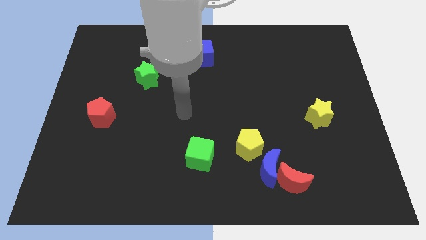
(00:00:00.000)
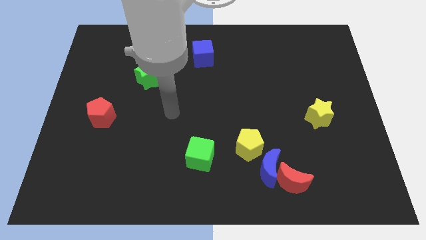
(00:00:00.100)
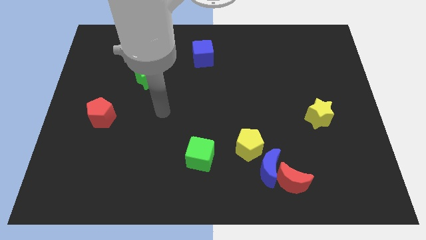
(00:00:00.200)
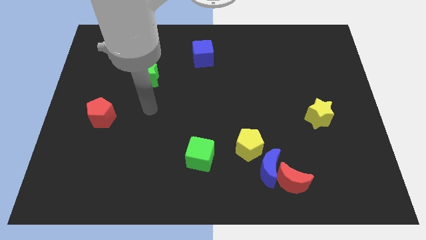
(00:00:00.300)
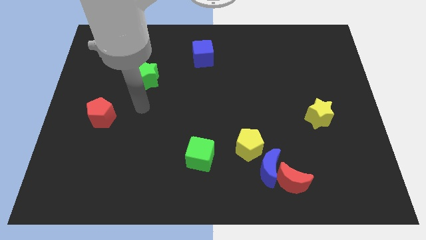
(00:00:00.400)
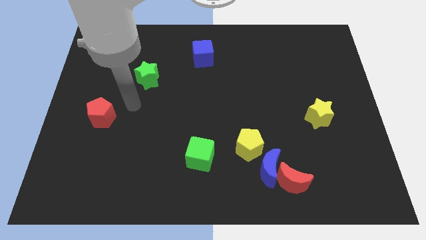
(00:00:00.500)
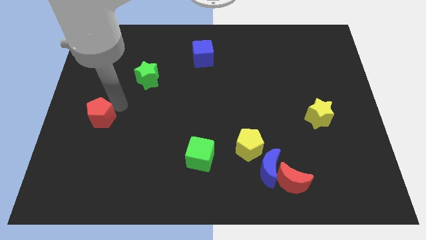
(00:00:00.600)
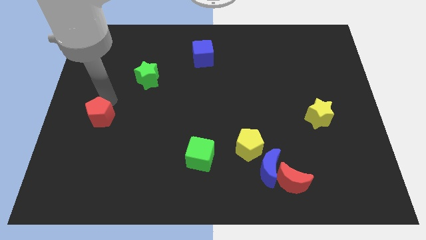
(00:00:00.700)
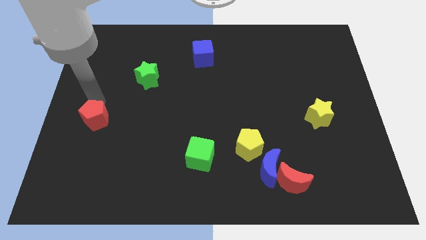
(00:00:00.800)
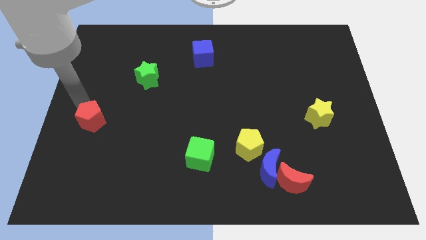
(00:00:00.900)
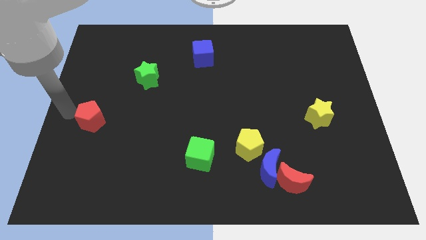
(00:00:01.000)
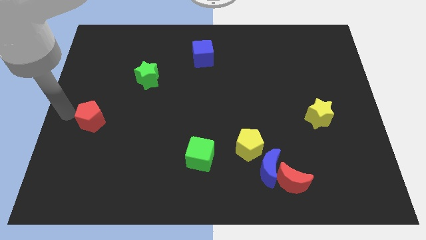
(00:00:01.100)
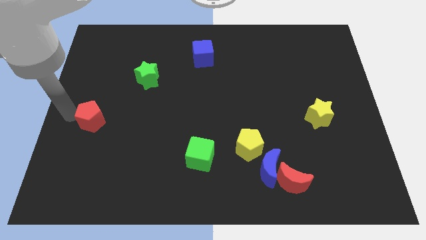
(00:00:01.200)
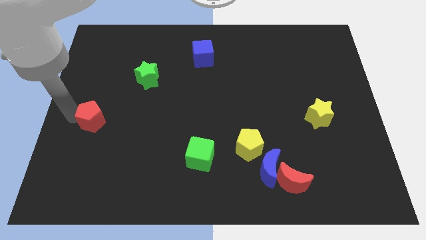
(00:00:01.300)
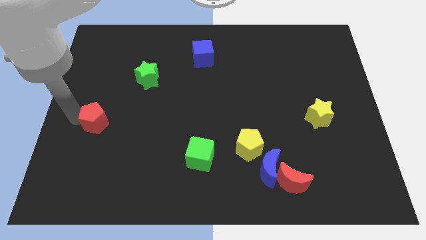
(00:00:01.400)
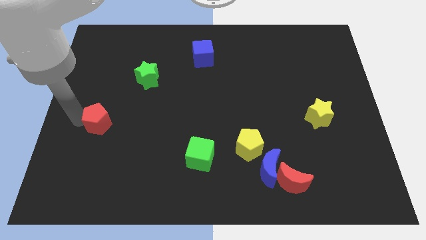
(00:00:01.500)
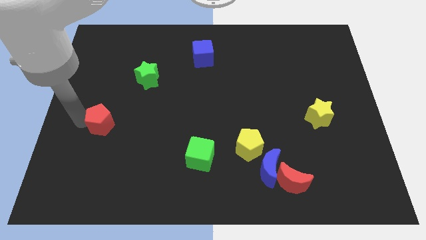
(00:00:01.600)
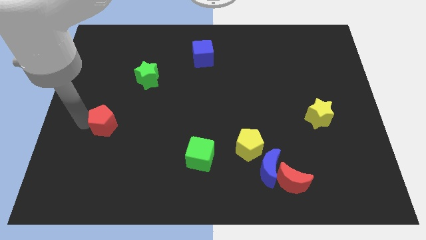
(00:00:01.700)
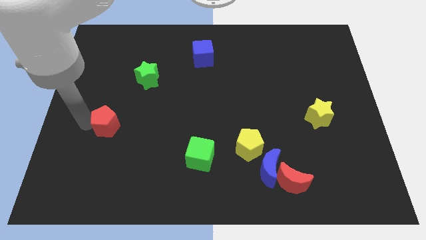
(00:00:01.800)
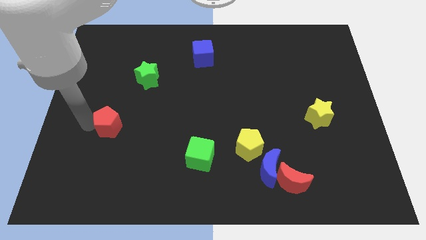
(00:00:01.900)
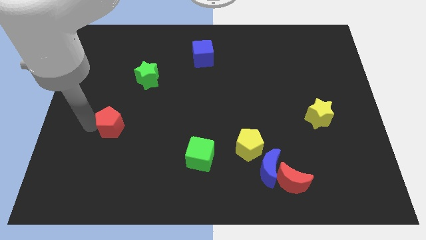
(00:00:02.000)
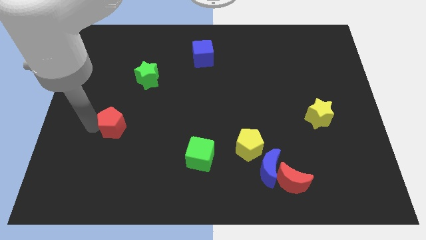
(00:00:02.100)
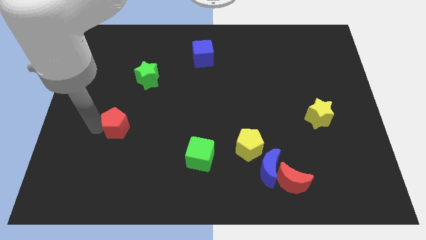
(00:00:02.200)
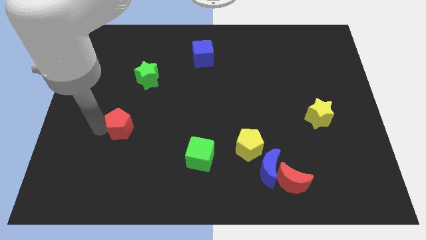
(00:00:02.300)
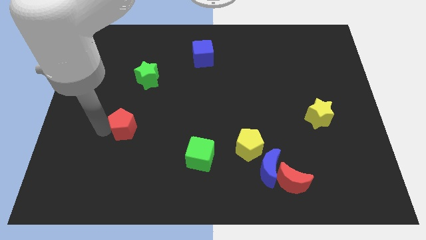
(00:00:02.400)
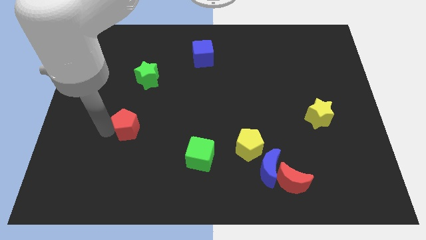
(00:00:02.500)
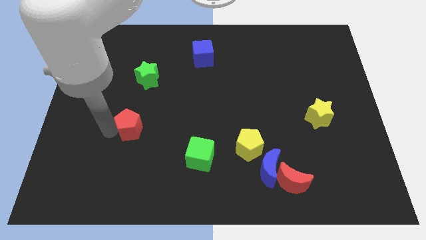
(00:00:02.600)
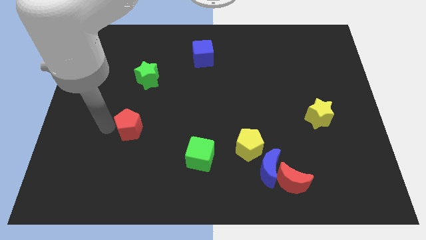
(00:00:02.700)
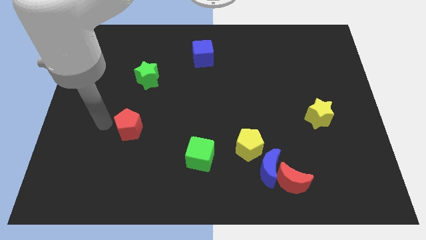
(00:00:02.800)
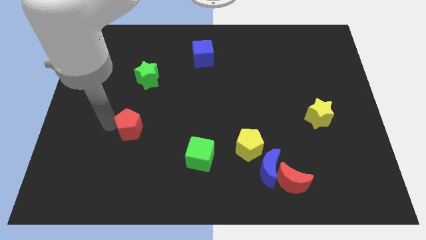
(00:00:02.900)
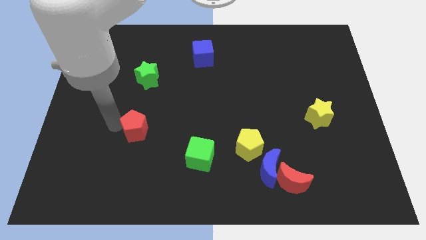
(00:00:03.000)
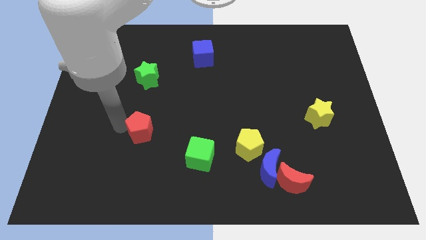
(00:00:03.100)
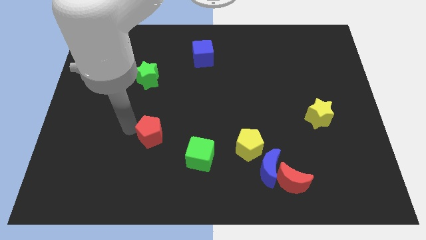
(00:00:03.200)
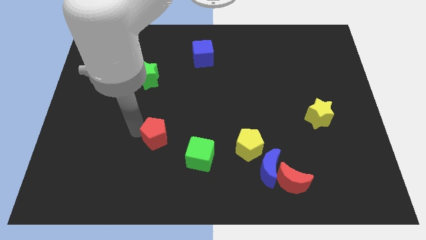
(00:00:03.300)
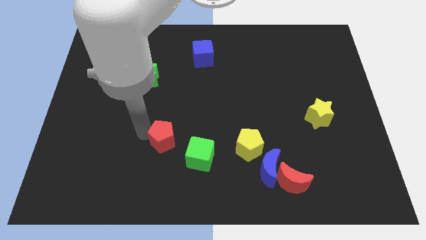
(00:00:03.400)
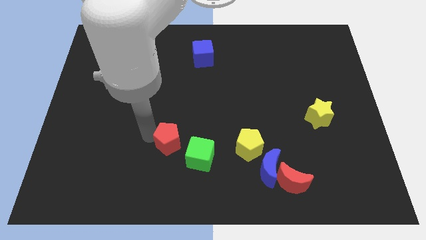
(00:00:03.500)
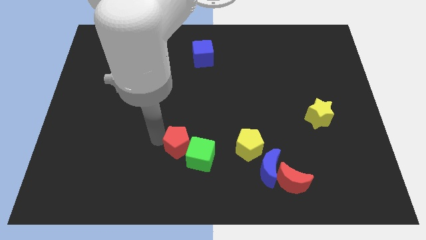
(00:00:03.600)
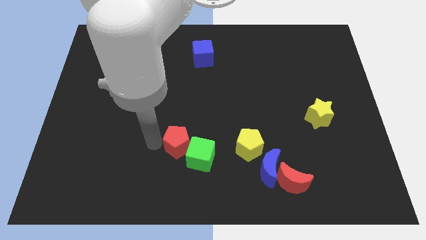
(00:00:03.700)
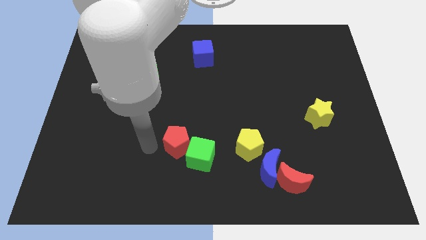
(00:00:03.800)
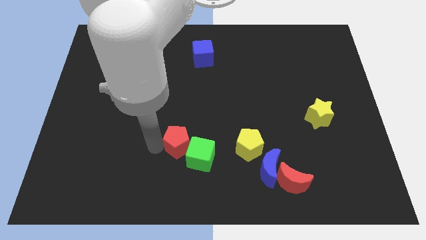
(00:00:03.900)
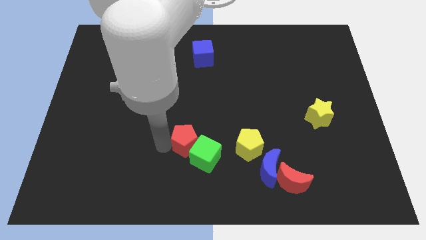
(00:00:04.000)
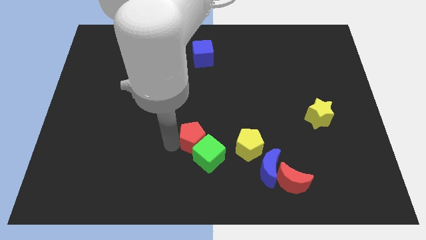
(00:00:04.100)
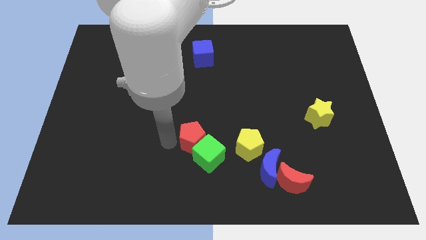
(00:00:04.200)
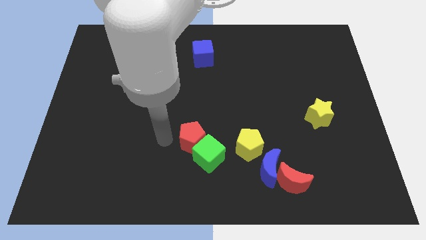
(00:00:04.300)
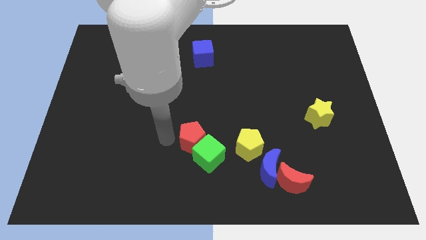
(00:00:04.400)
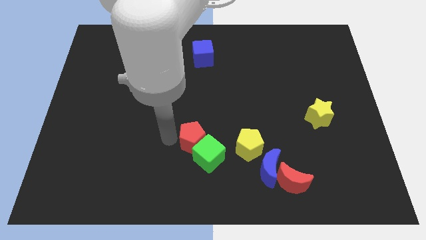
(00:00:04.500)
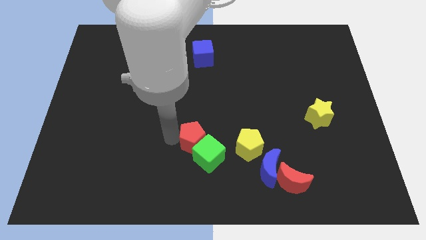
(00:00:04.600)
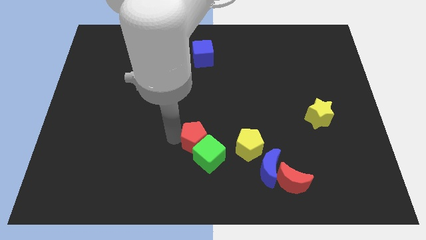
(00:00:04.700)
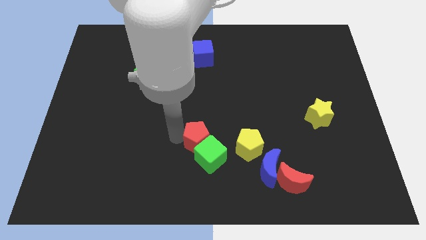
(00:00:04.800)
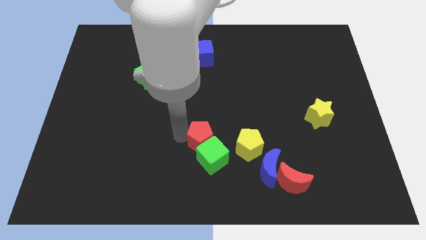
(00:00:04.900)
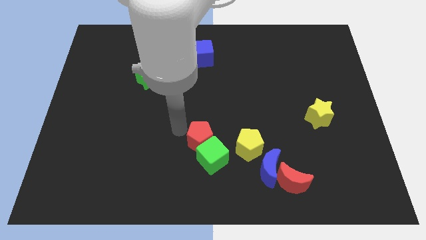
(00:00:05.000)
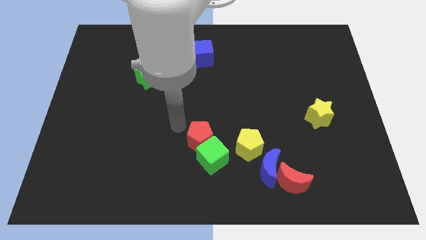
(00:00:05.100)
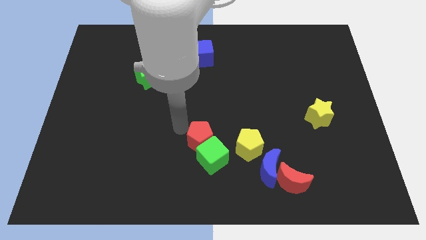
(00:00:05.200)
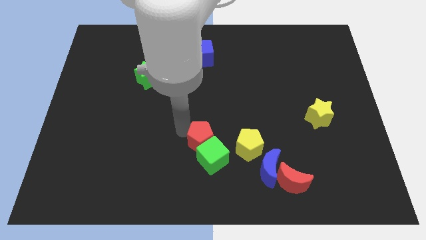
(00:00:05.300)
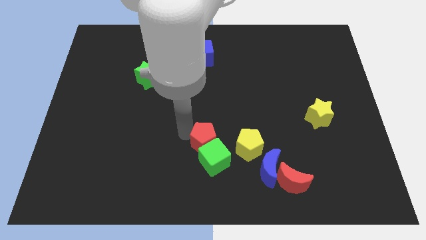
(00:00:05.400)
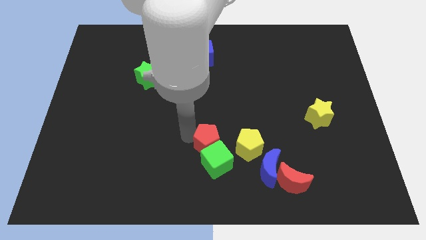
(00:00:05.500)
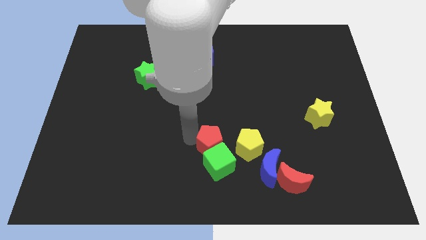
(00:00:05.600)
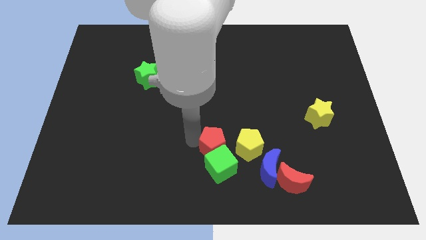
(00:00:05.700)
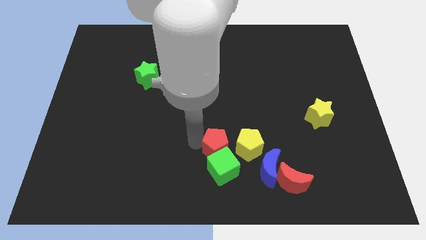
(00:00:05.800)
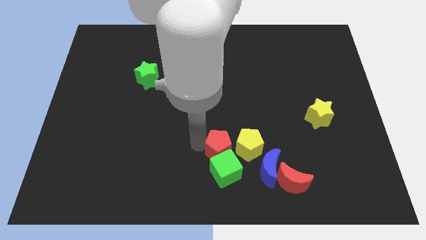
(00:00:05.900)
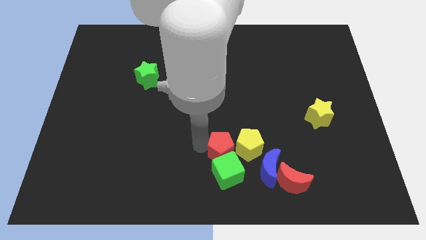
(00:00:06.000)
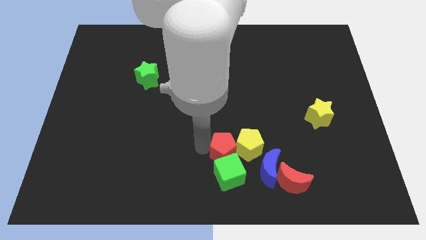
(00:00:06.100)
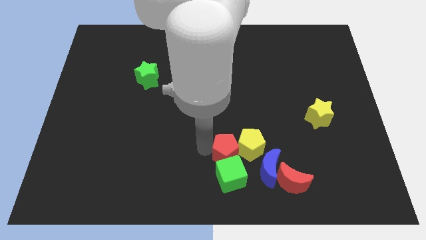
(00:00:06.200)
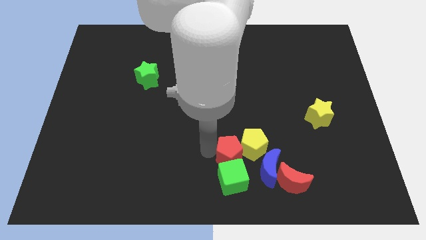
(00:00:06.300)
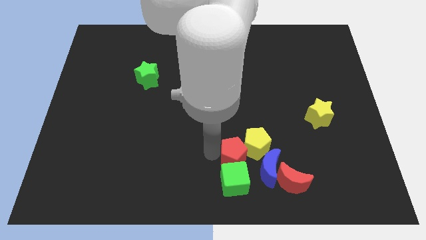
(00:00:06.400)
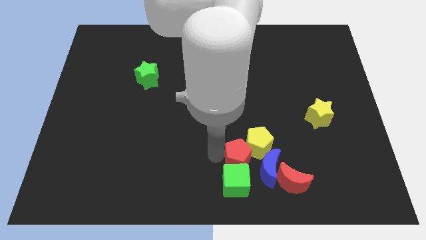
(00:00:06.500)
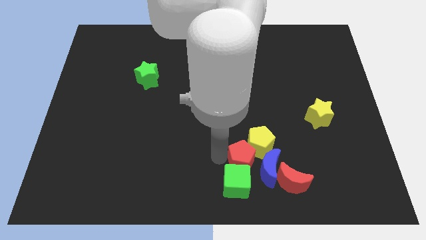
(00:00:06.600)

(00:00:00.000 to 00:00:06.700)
put the red pentagon close to the blue moon

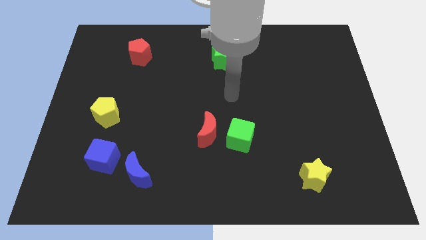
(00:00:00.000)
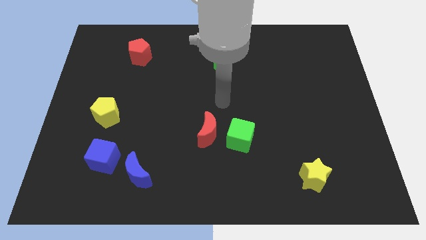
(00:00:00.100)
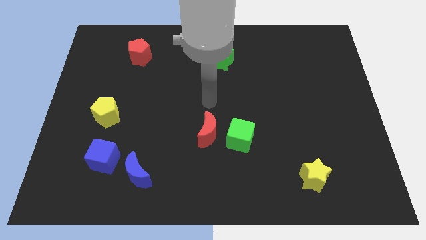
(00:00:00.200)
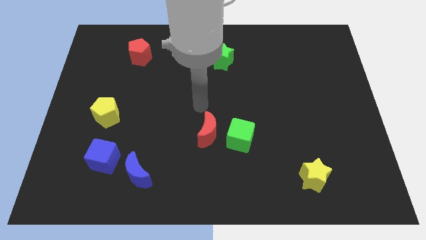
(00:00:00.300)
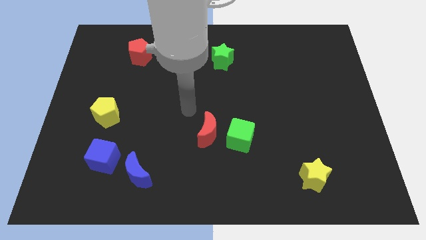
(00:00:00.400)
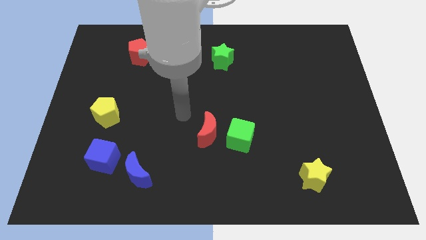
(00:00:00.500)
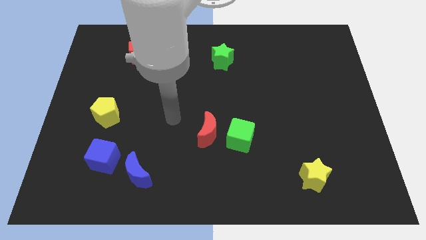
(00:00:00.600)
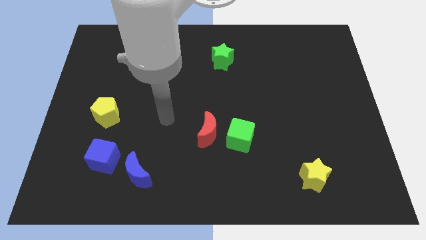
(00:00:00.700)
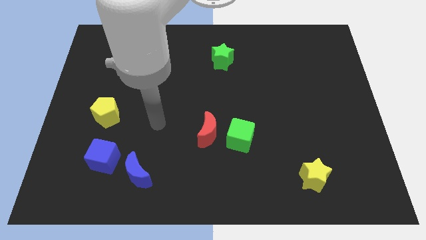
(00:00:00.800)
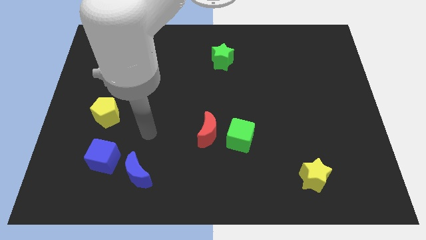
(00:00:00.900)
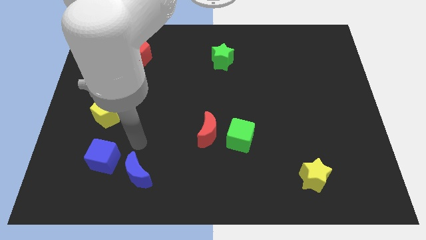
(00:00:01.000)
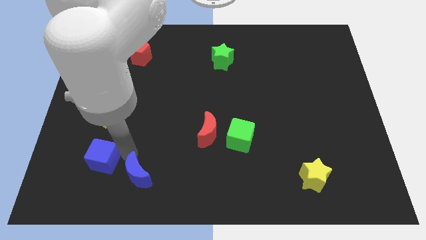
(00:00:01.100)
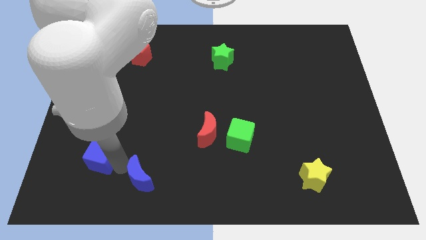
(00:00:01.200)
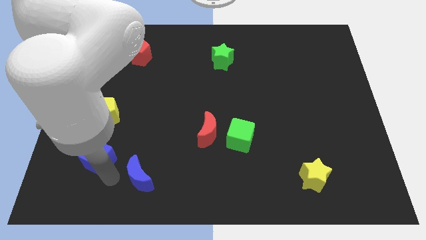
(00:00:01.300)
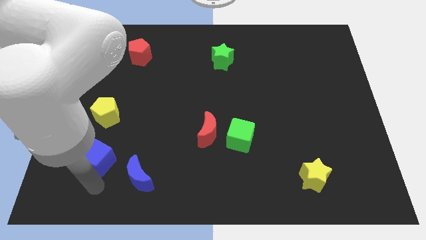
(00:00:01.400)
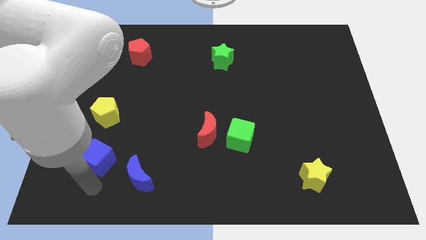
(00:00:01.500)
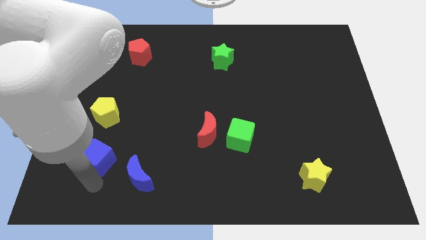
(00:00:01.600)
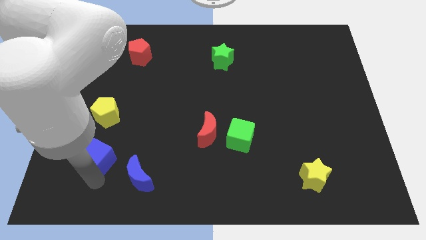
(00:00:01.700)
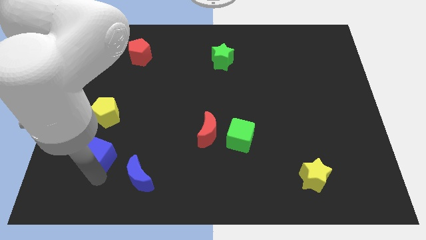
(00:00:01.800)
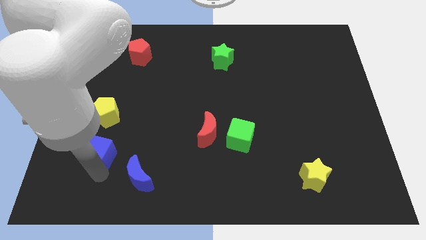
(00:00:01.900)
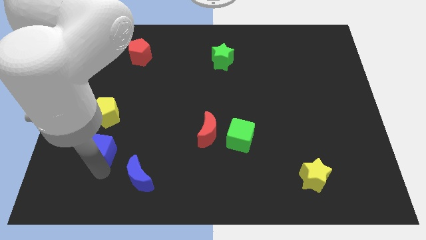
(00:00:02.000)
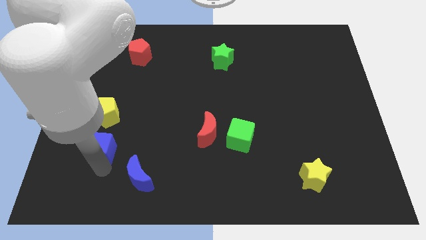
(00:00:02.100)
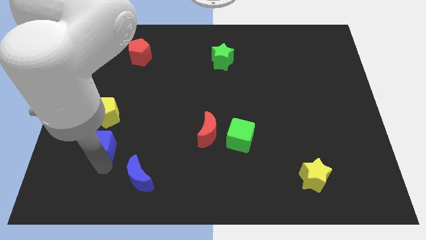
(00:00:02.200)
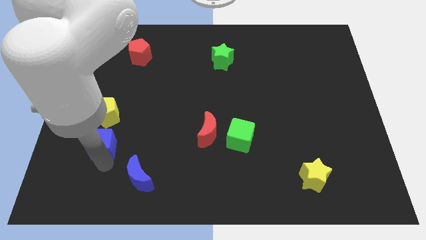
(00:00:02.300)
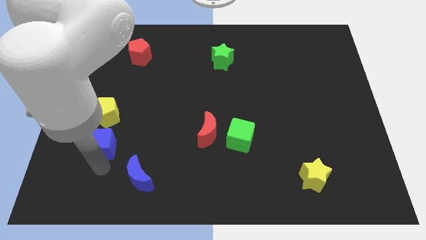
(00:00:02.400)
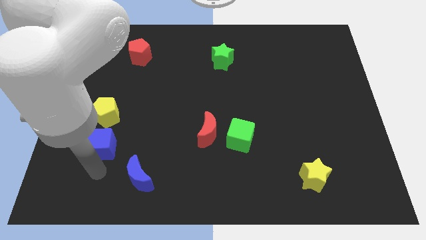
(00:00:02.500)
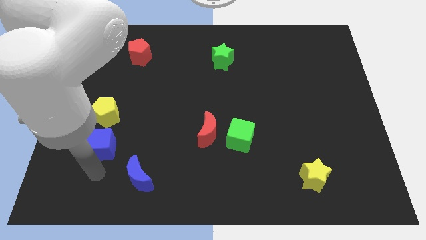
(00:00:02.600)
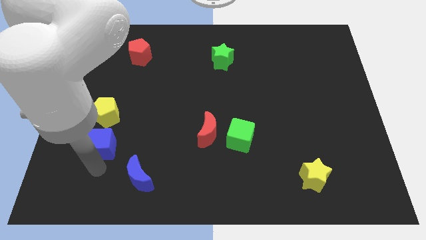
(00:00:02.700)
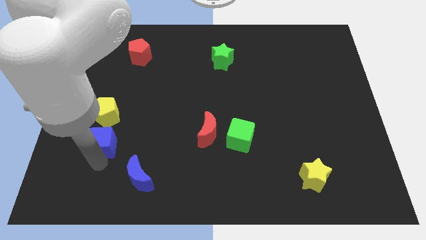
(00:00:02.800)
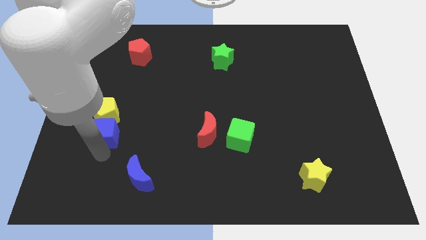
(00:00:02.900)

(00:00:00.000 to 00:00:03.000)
slide the blue cube towards the yellow pentagon
